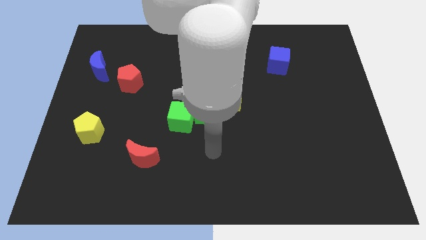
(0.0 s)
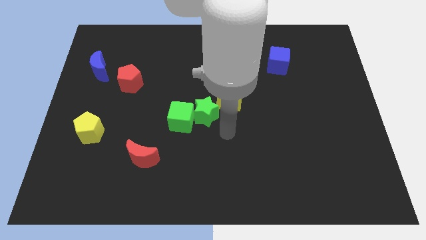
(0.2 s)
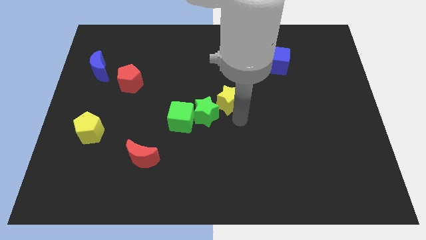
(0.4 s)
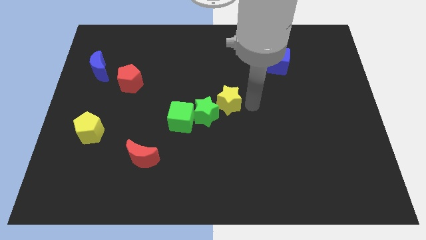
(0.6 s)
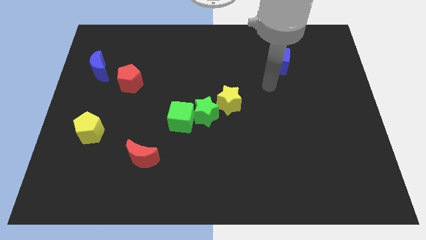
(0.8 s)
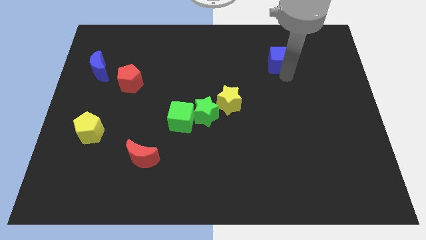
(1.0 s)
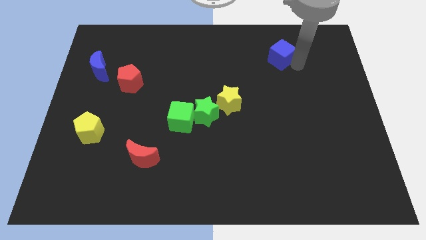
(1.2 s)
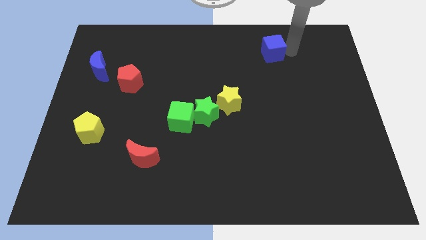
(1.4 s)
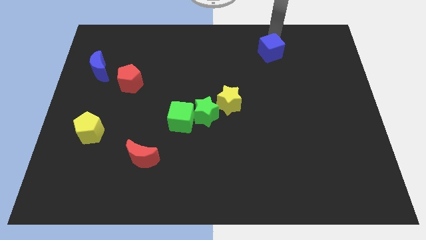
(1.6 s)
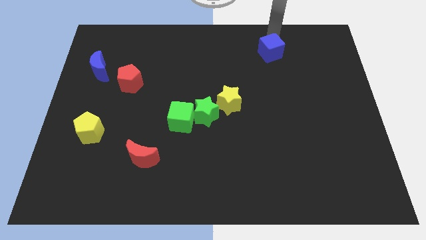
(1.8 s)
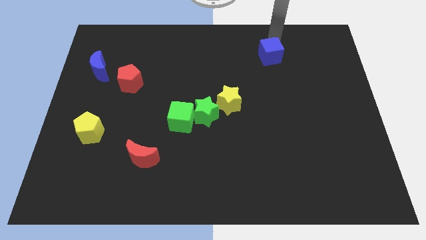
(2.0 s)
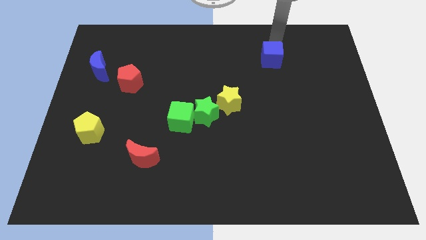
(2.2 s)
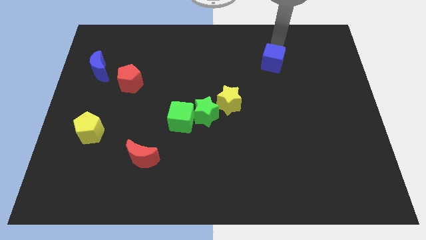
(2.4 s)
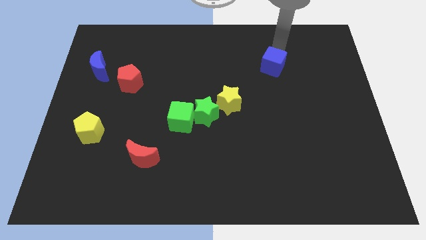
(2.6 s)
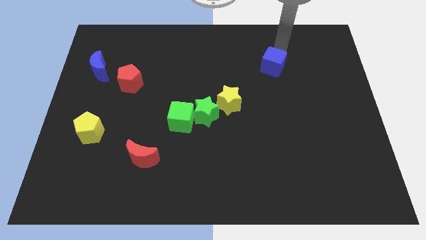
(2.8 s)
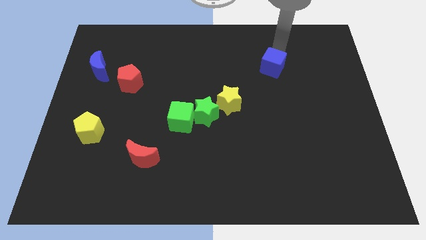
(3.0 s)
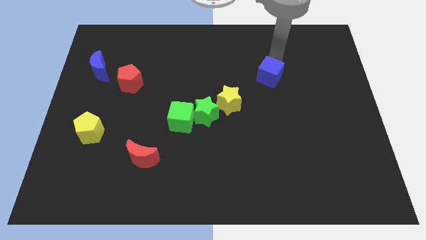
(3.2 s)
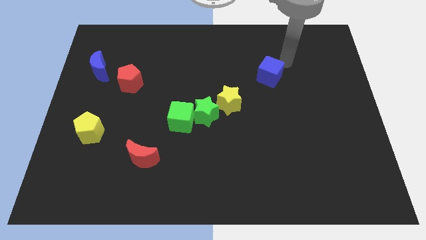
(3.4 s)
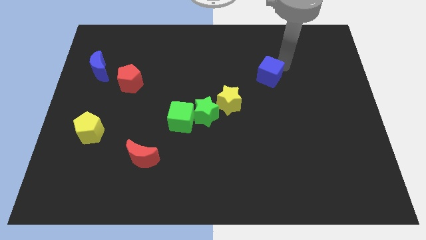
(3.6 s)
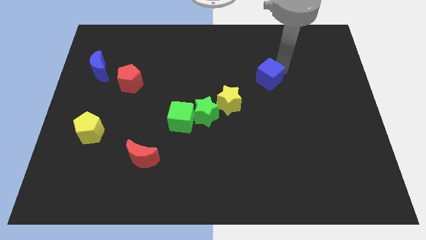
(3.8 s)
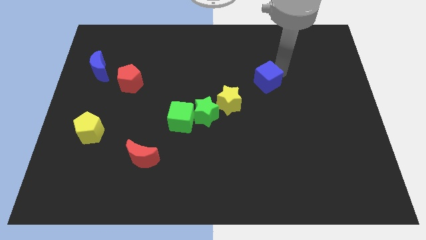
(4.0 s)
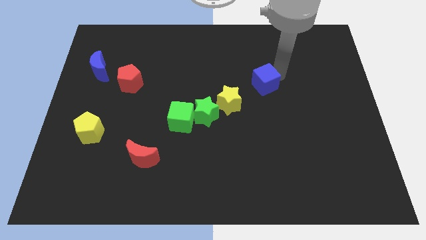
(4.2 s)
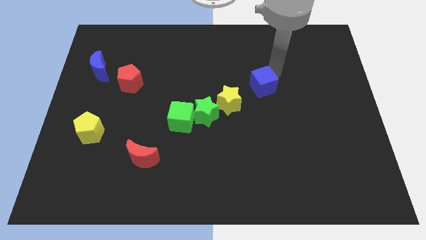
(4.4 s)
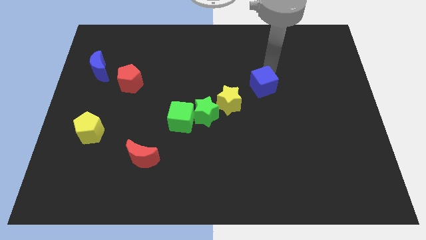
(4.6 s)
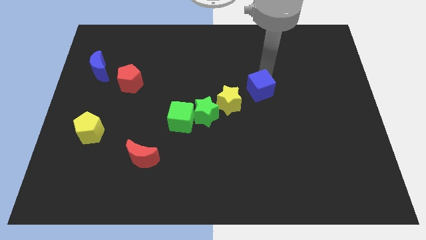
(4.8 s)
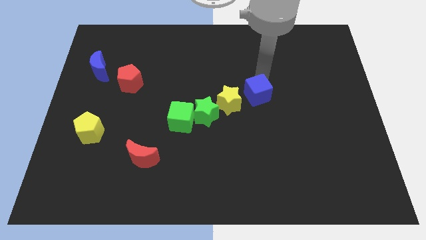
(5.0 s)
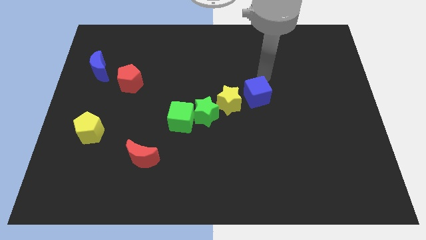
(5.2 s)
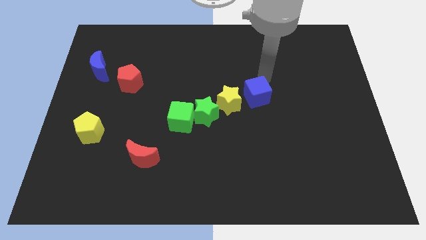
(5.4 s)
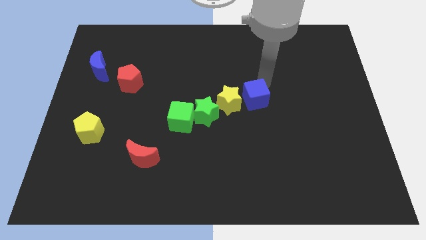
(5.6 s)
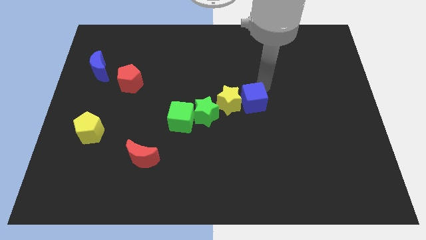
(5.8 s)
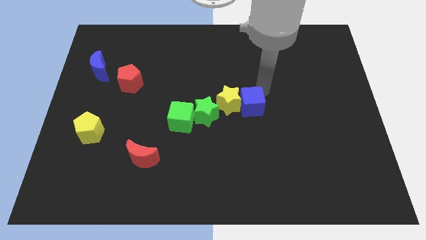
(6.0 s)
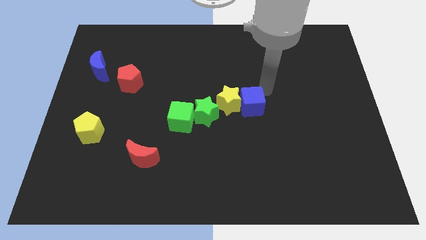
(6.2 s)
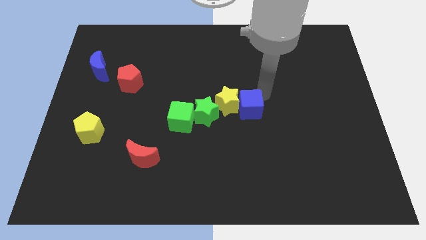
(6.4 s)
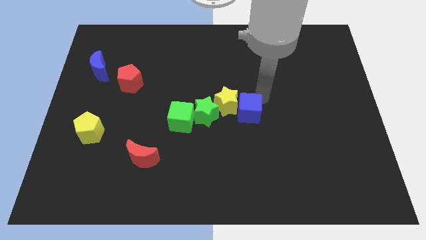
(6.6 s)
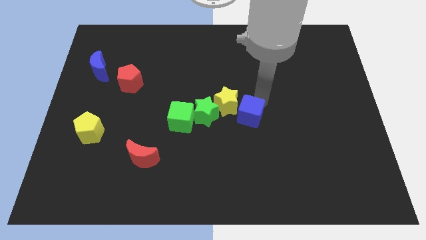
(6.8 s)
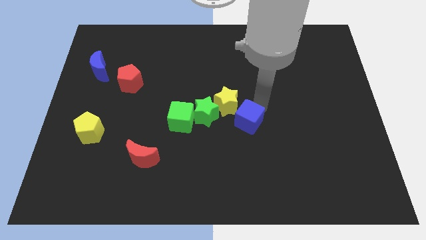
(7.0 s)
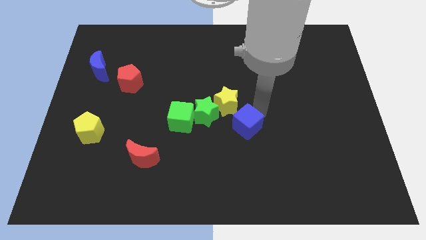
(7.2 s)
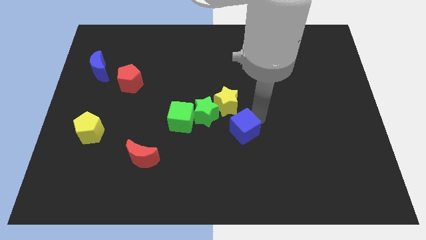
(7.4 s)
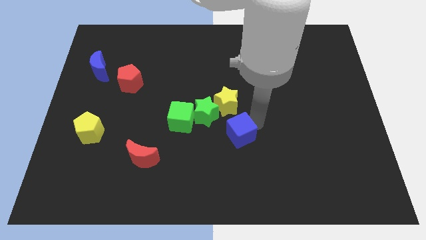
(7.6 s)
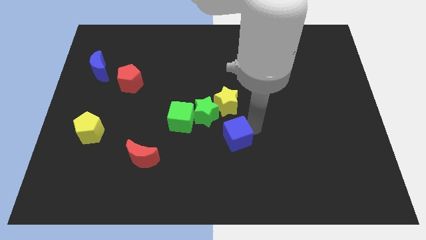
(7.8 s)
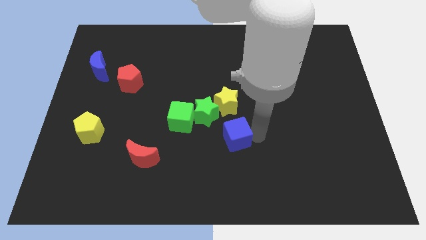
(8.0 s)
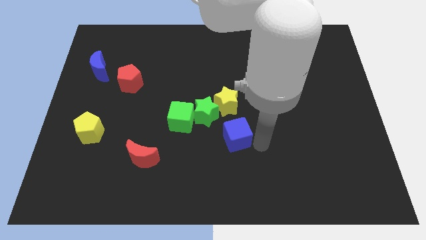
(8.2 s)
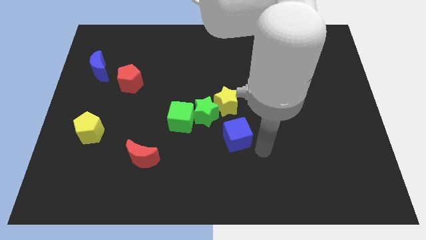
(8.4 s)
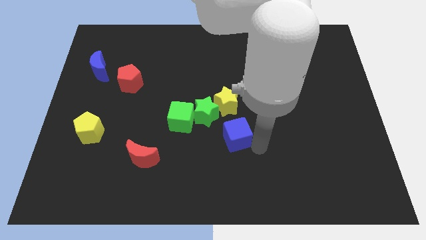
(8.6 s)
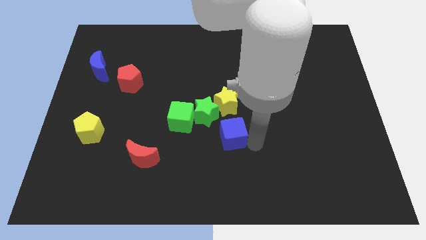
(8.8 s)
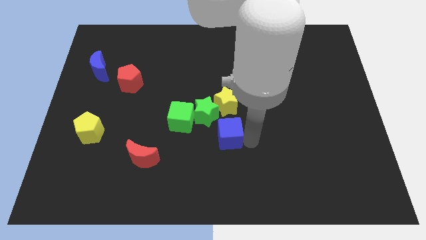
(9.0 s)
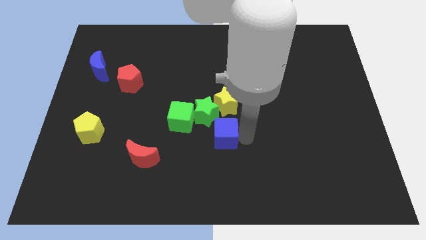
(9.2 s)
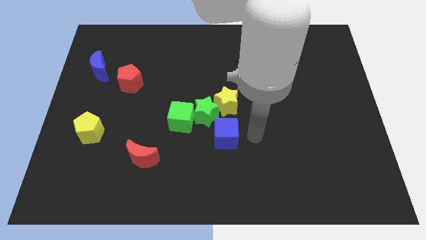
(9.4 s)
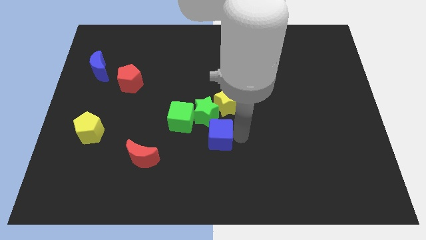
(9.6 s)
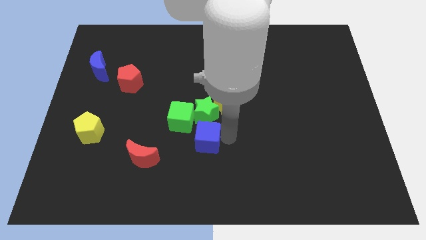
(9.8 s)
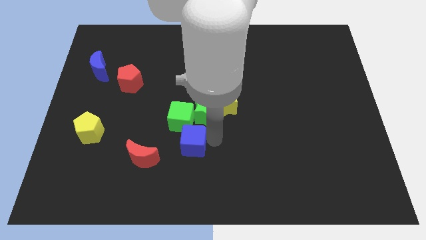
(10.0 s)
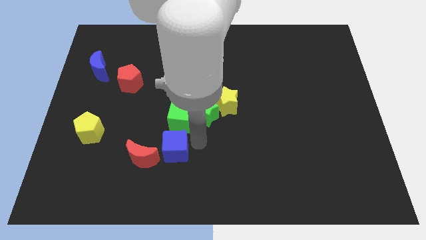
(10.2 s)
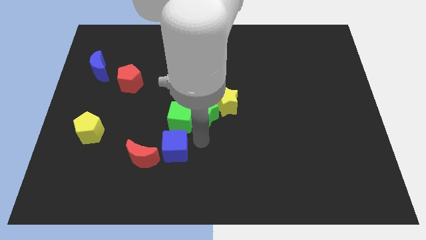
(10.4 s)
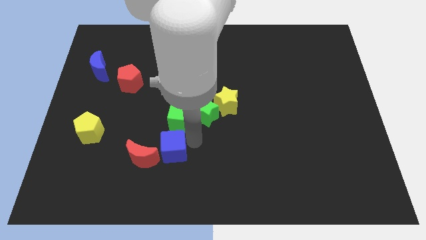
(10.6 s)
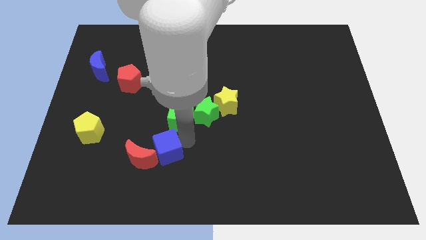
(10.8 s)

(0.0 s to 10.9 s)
move the blue cube next to the red moon

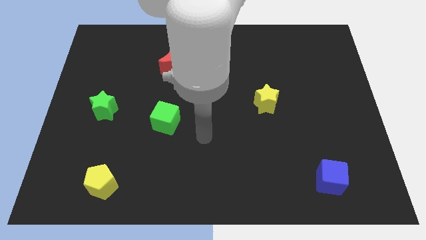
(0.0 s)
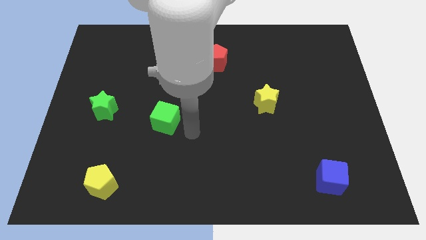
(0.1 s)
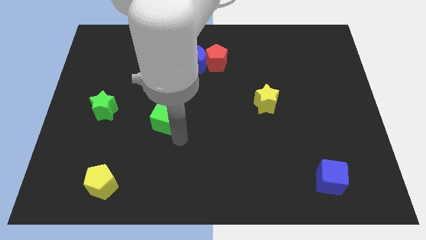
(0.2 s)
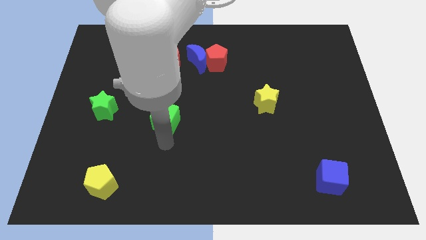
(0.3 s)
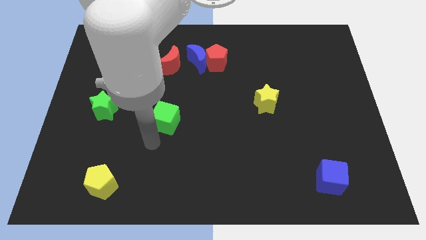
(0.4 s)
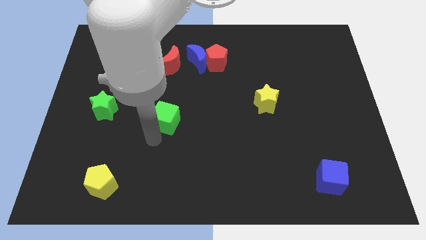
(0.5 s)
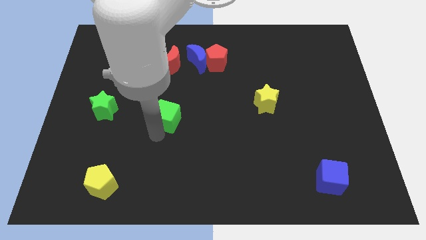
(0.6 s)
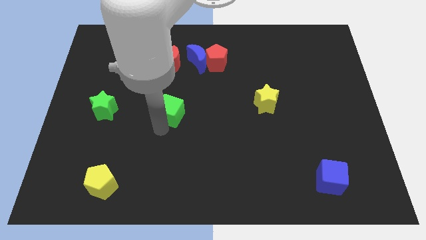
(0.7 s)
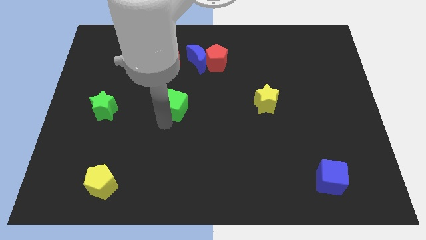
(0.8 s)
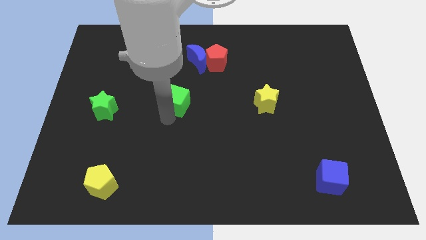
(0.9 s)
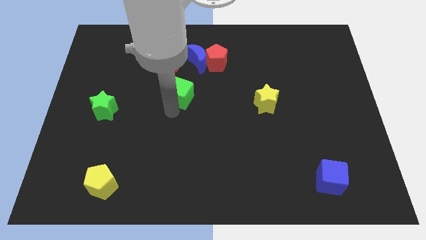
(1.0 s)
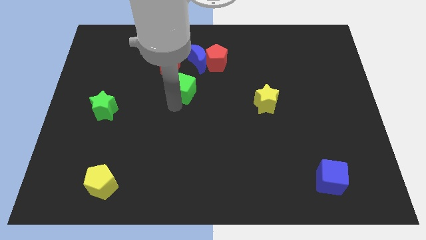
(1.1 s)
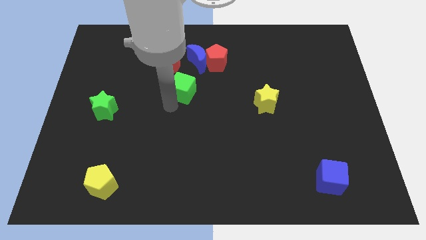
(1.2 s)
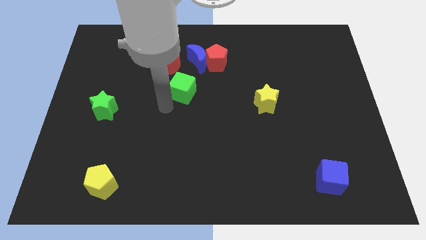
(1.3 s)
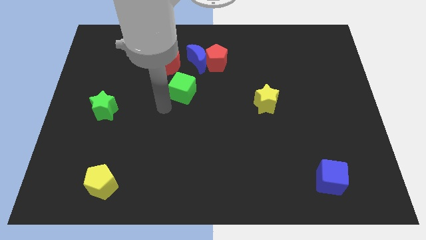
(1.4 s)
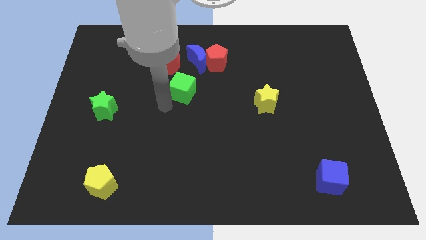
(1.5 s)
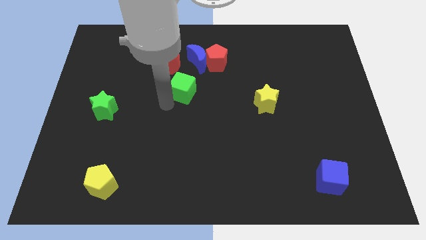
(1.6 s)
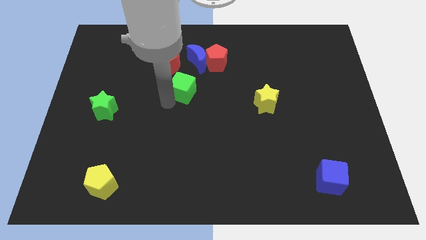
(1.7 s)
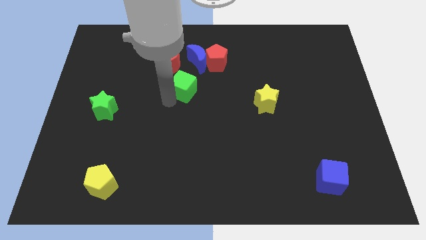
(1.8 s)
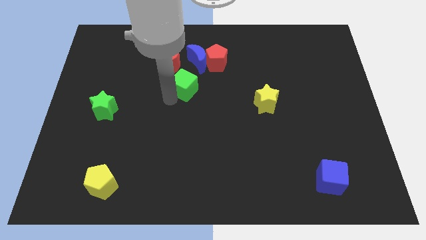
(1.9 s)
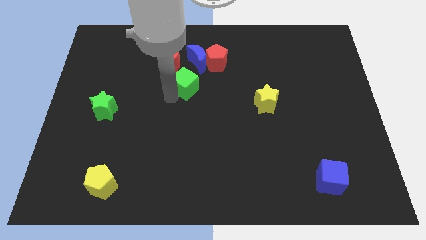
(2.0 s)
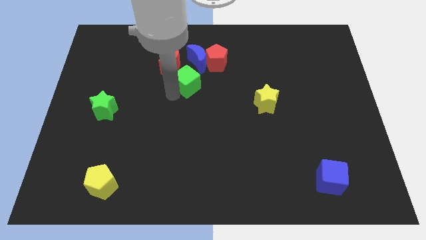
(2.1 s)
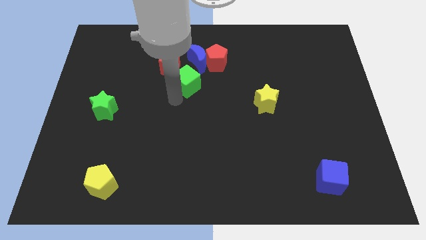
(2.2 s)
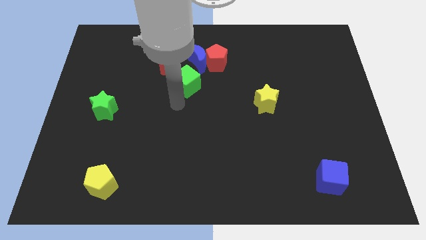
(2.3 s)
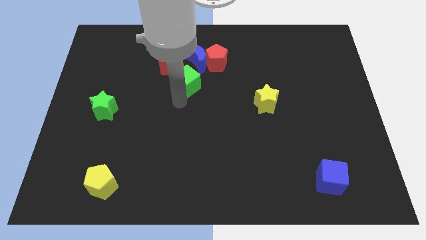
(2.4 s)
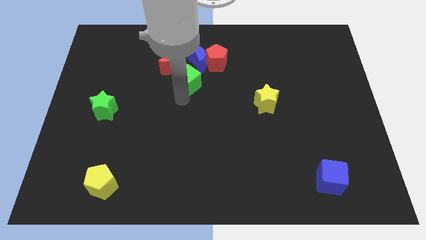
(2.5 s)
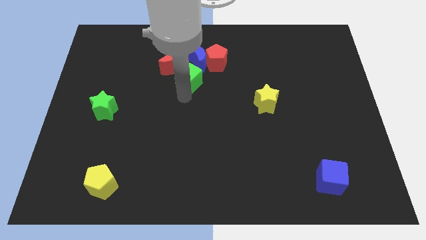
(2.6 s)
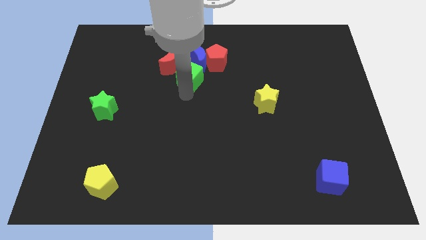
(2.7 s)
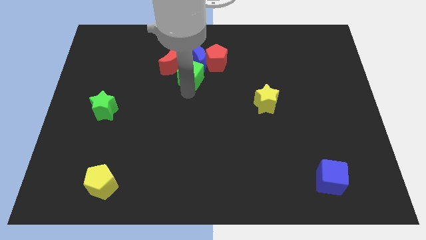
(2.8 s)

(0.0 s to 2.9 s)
slide the green cube towards the blue moon
